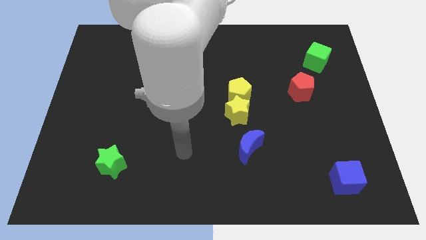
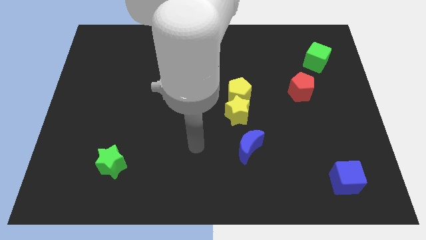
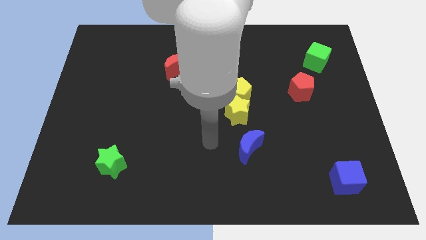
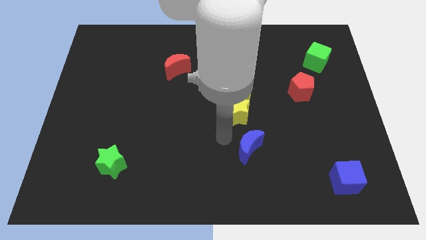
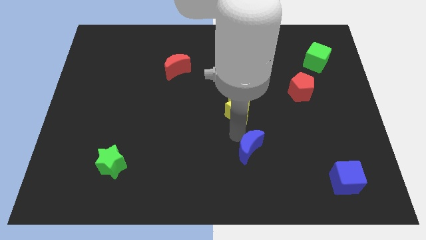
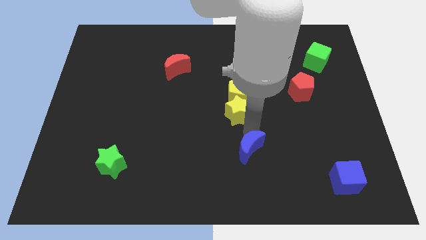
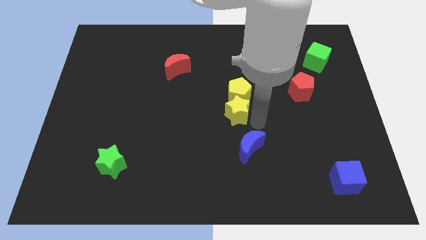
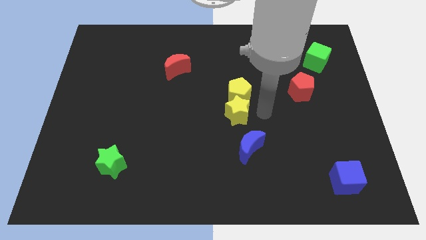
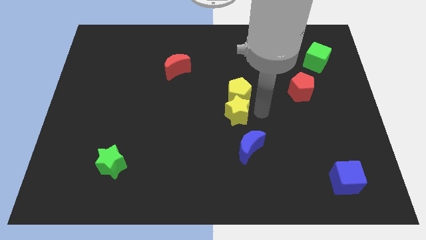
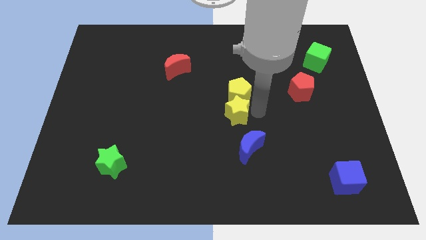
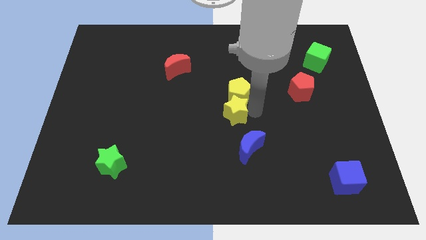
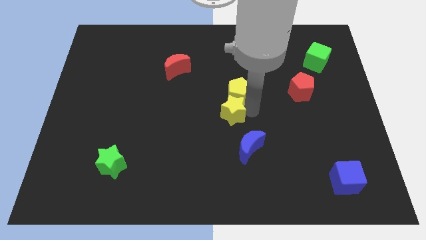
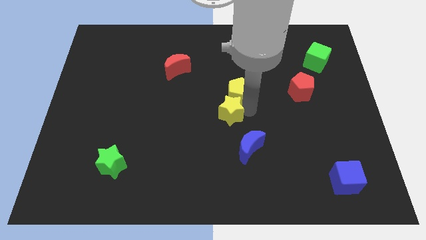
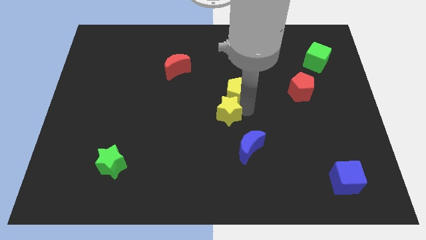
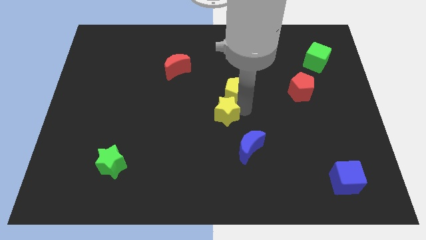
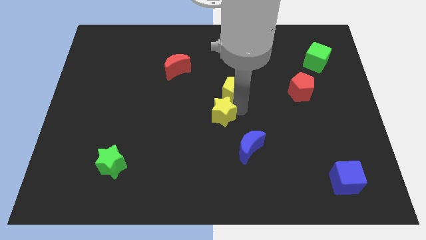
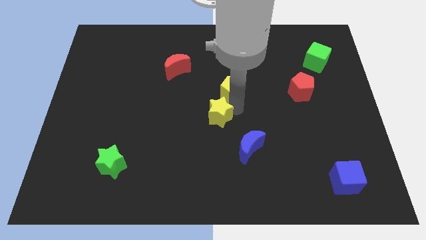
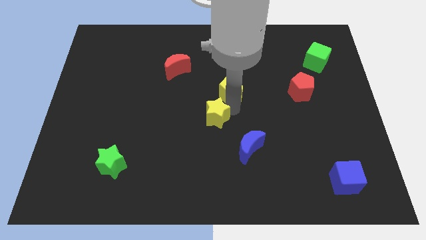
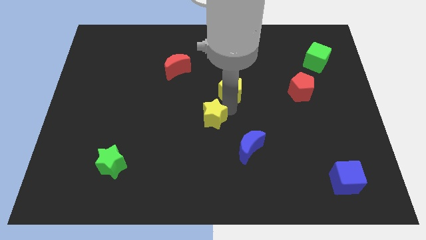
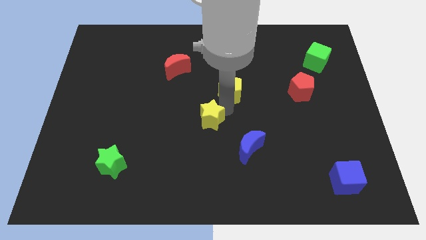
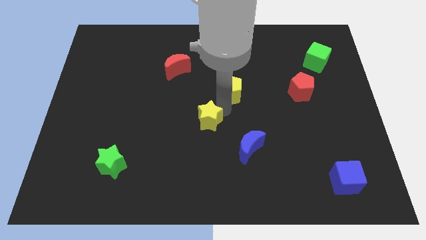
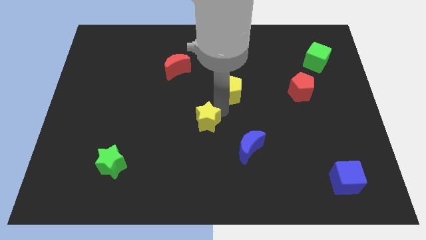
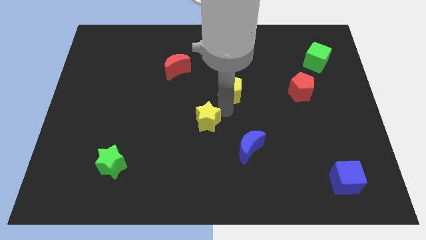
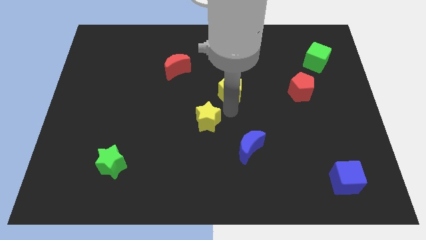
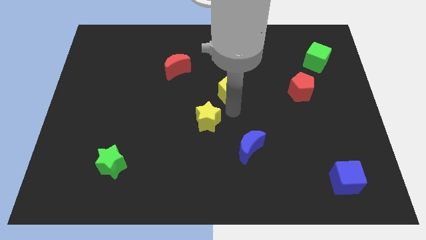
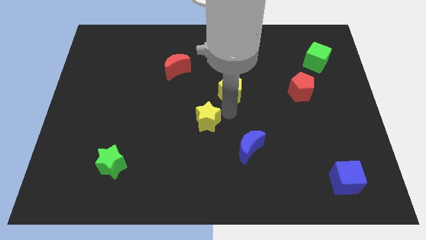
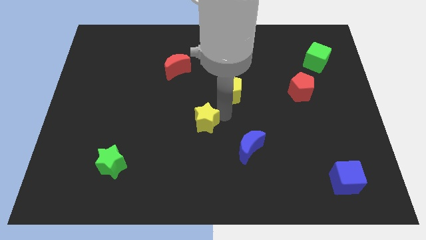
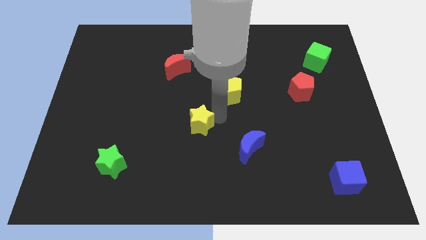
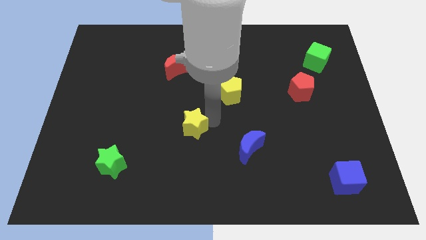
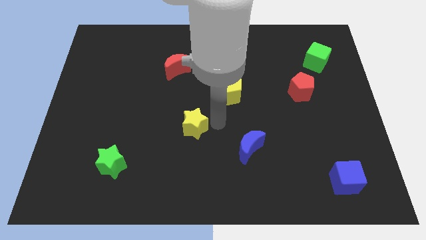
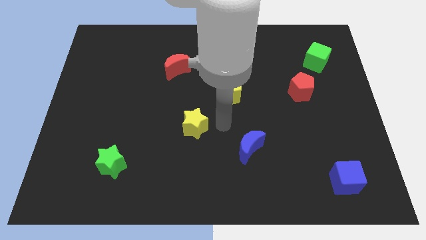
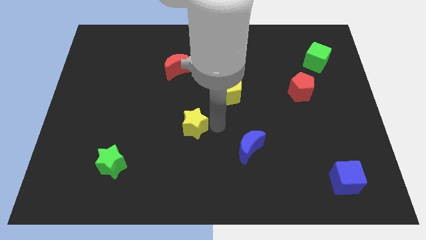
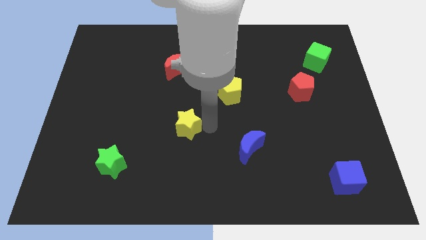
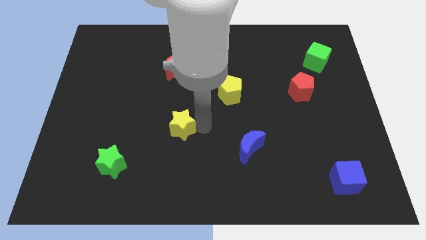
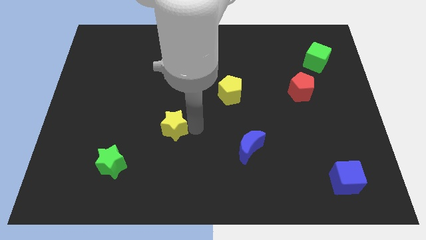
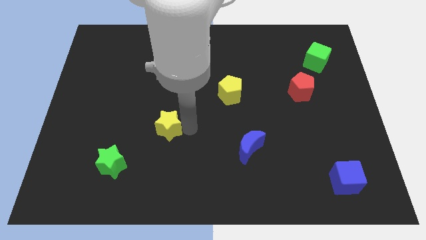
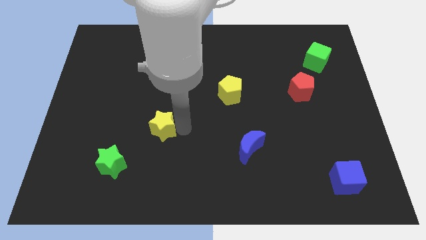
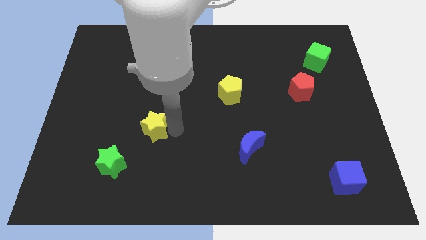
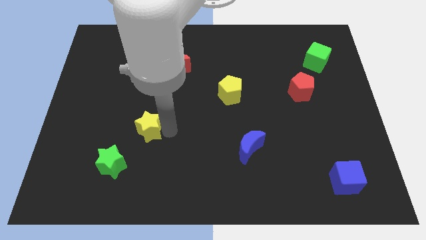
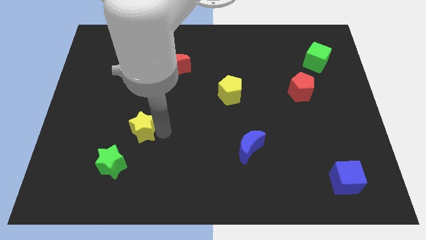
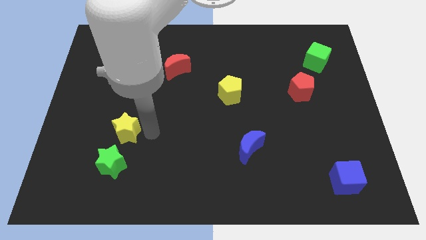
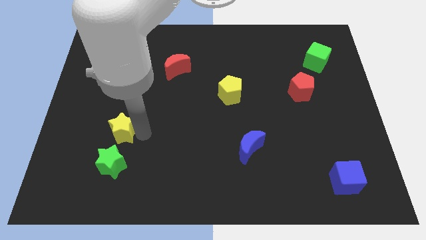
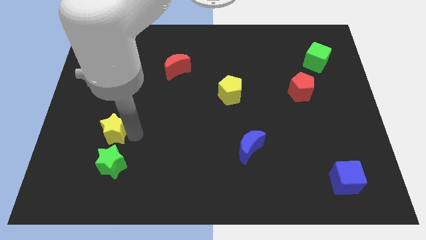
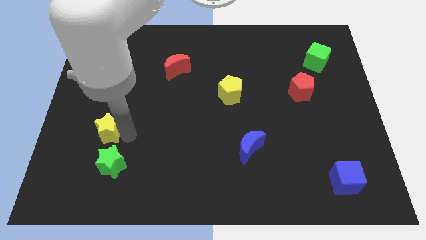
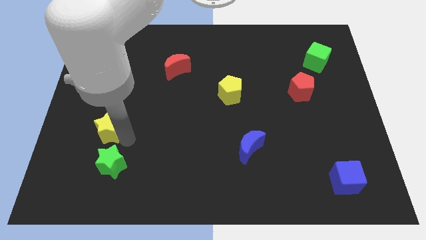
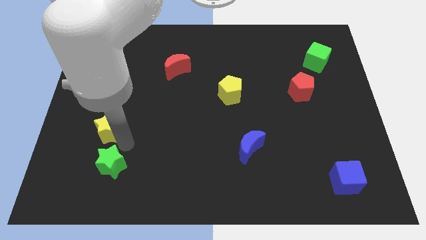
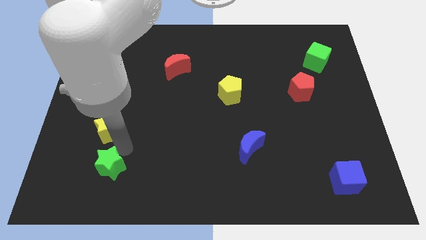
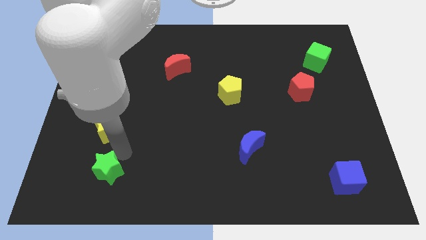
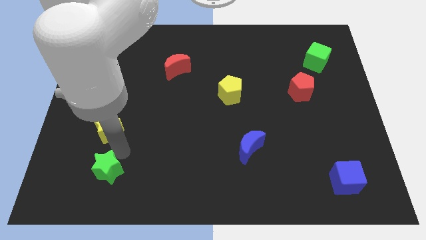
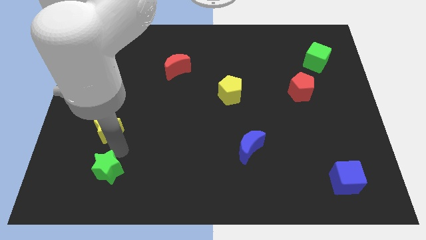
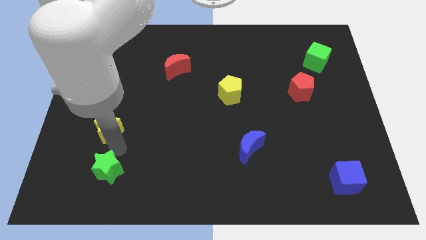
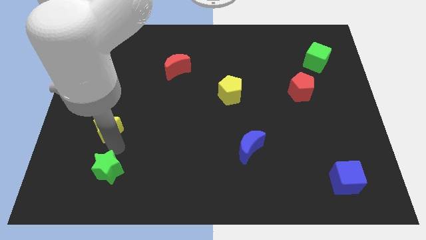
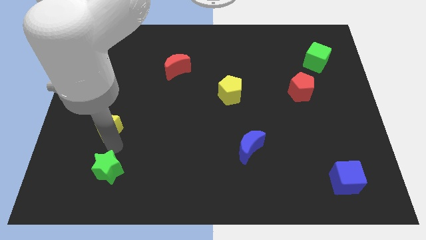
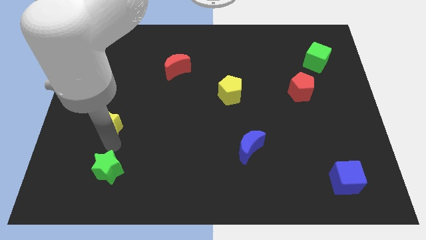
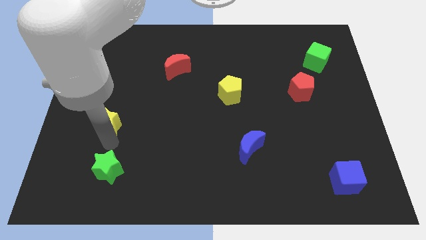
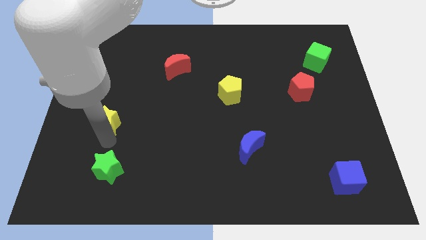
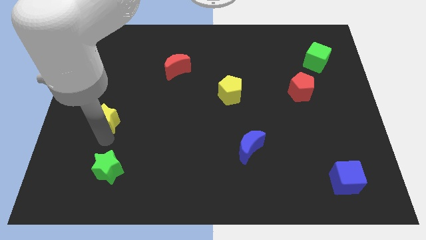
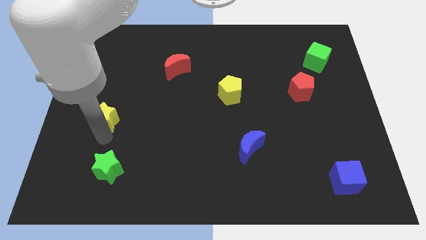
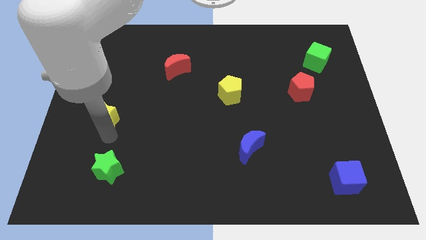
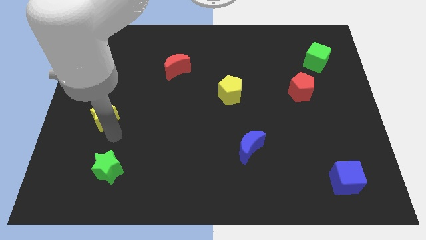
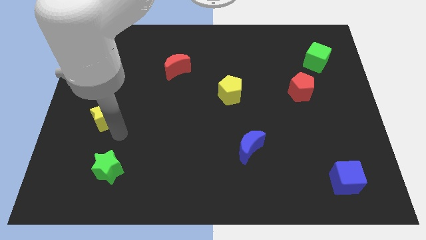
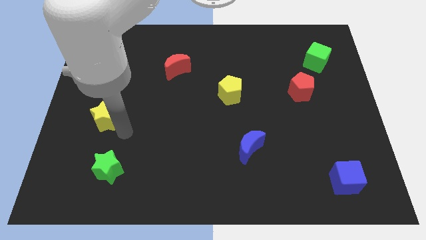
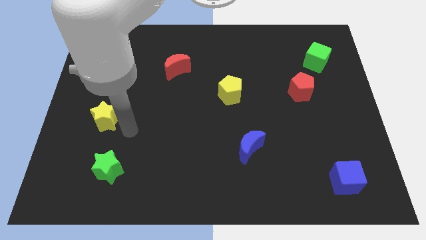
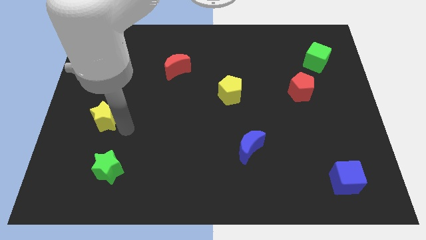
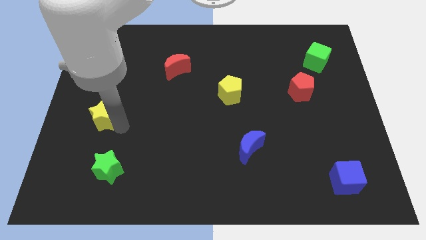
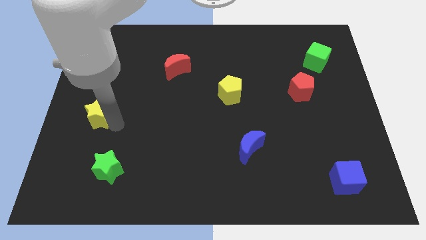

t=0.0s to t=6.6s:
move the yellow star to the left side
